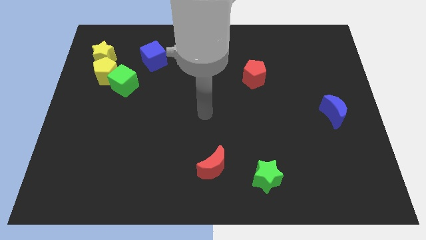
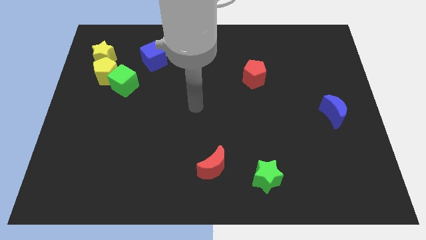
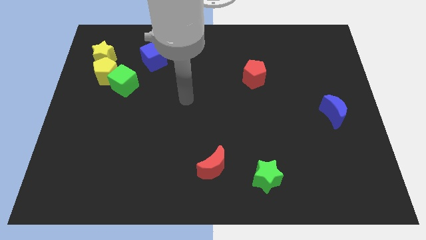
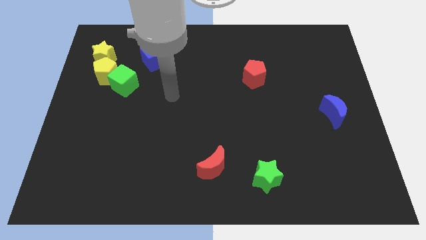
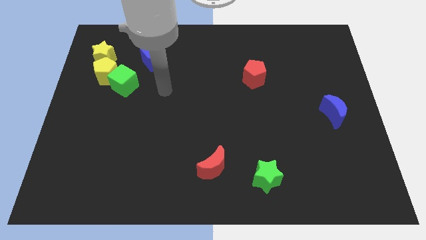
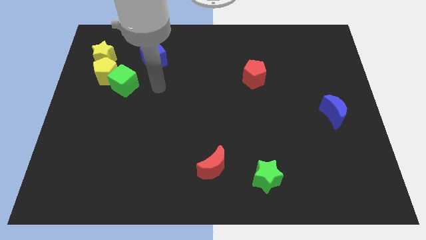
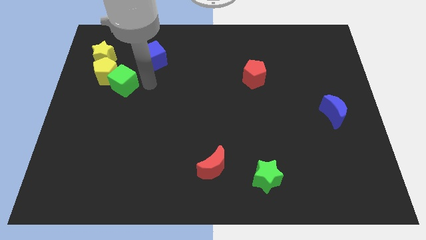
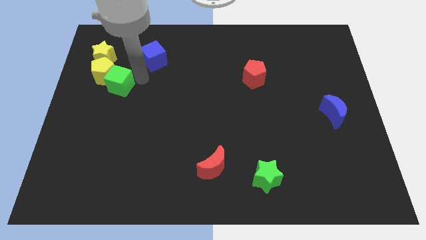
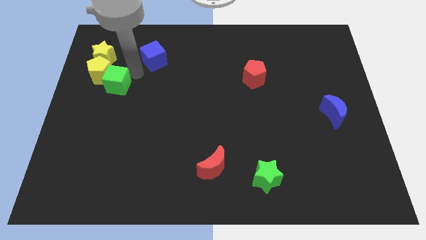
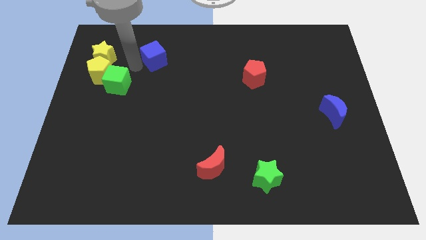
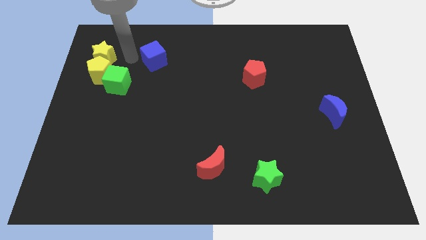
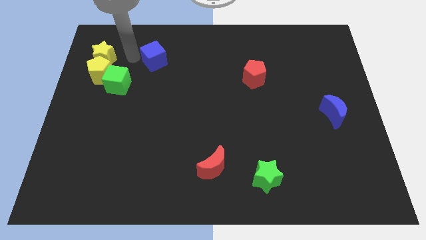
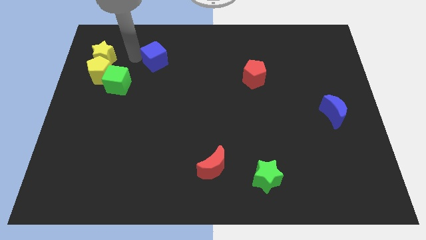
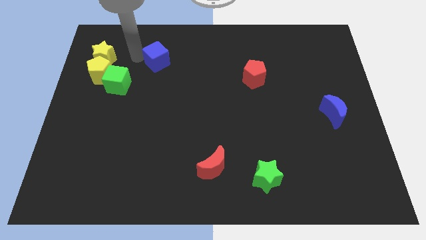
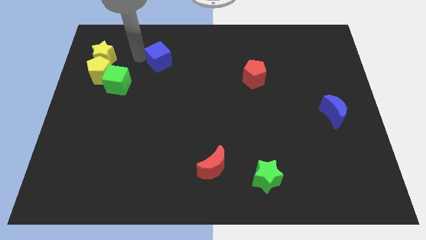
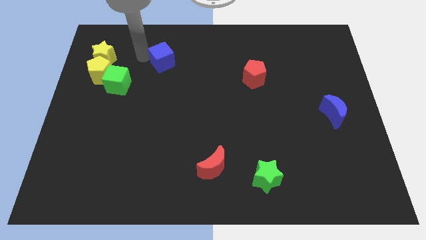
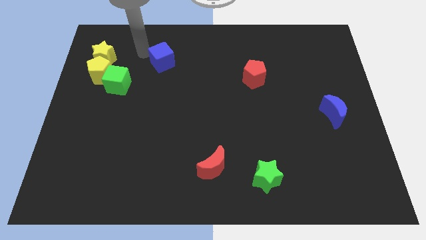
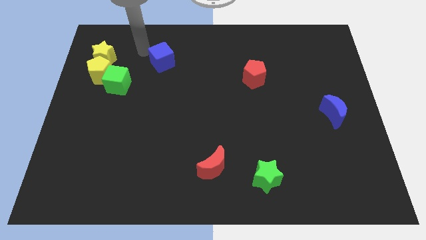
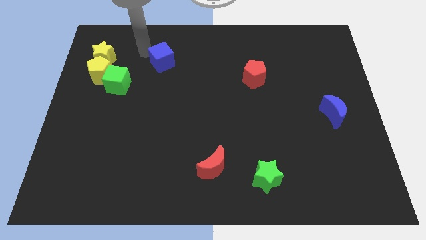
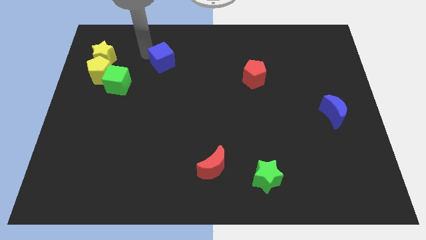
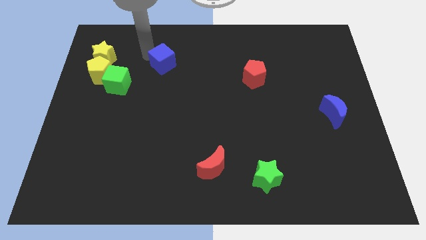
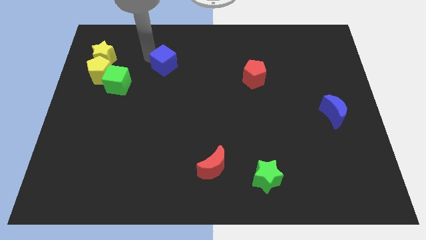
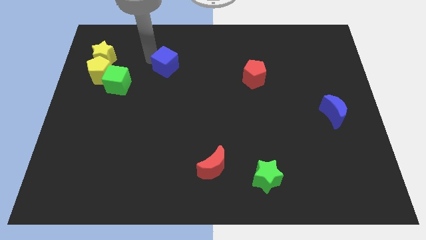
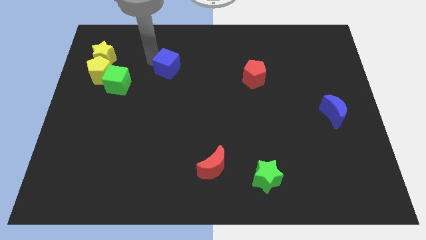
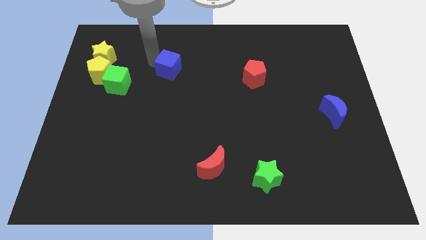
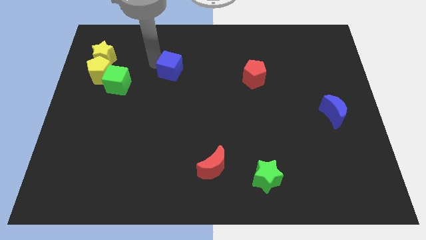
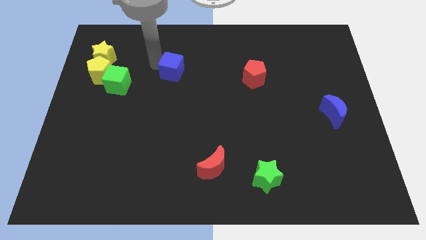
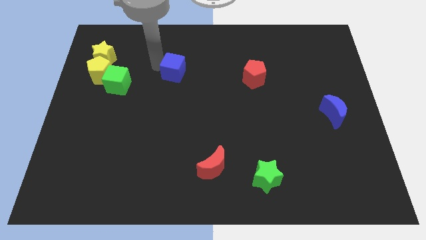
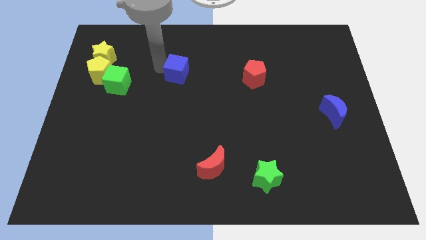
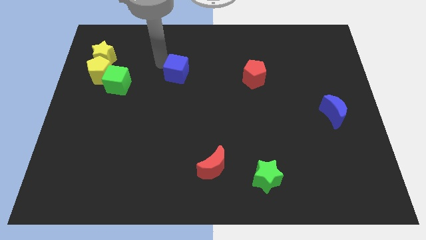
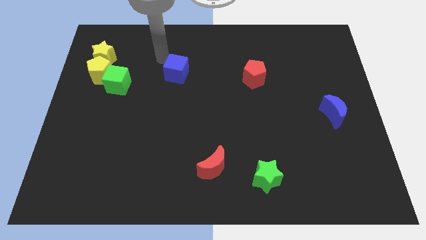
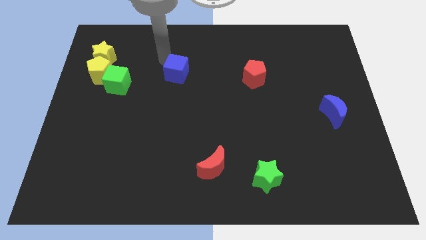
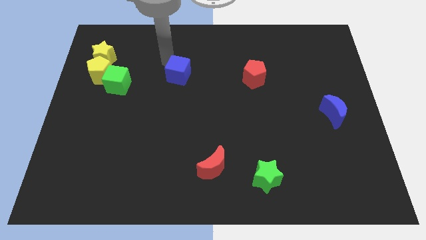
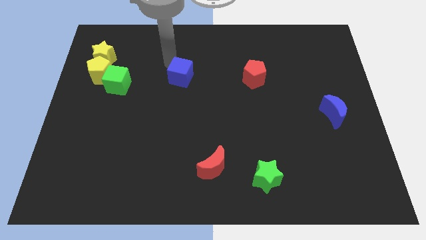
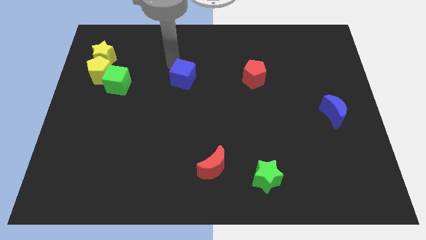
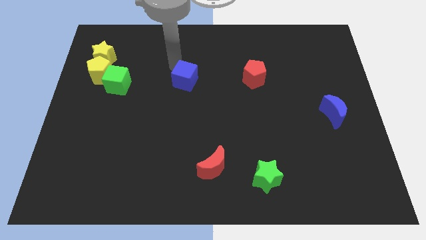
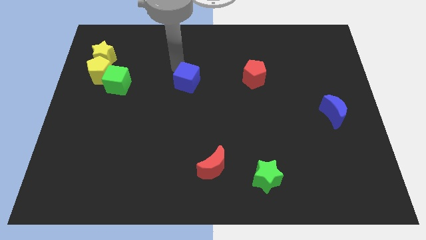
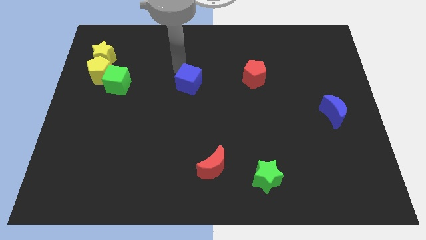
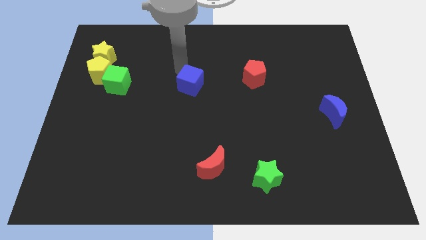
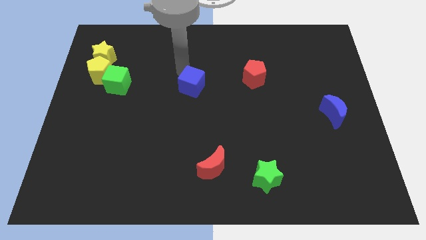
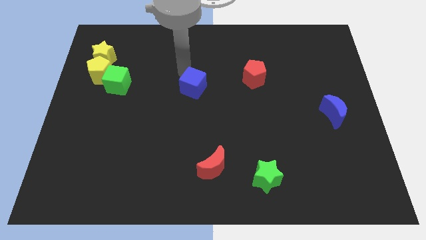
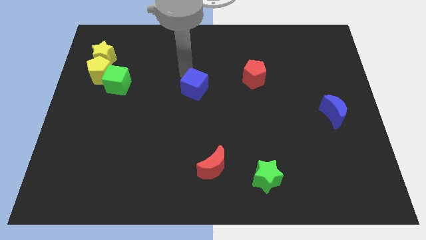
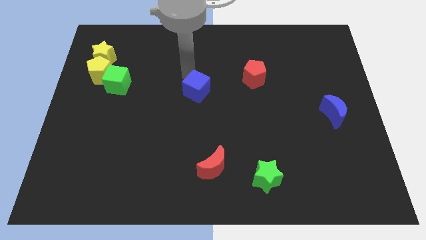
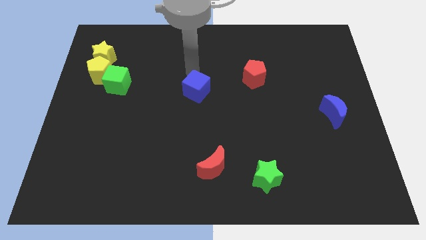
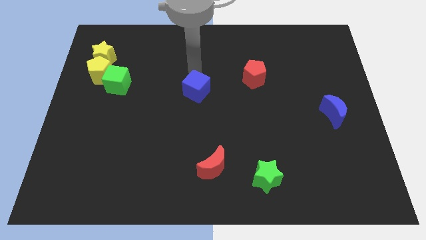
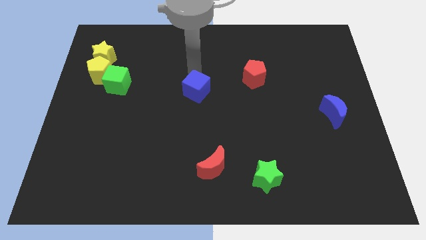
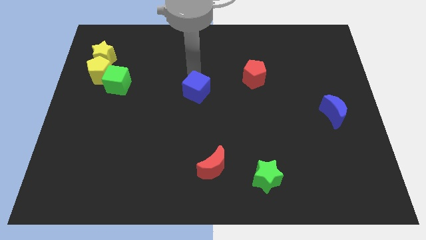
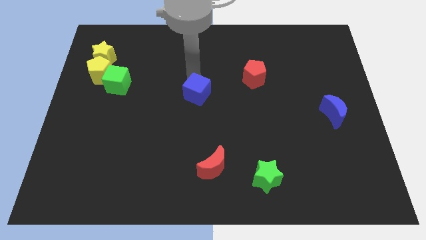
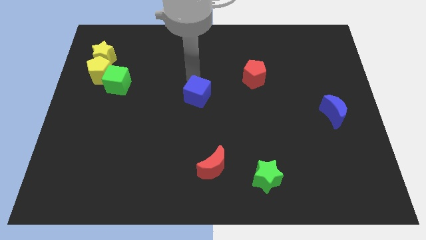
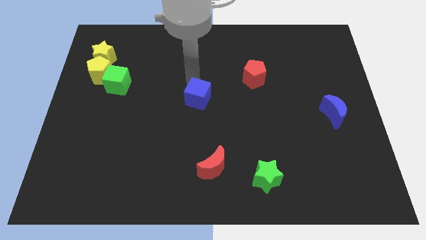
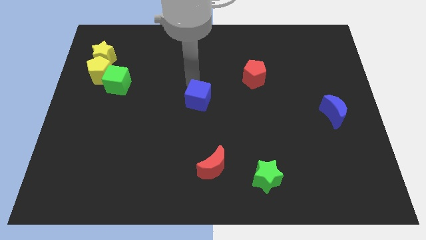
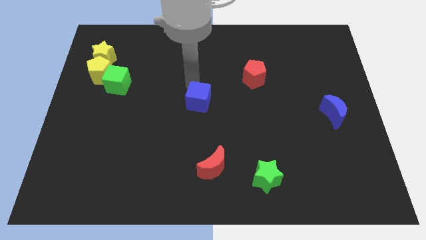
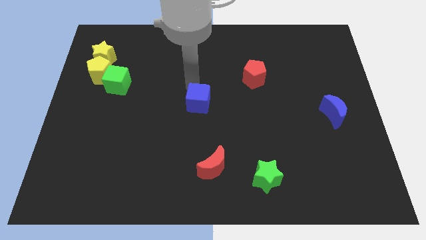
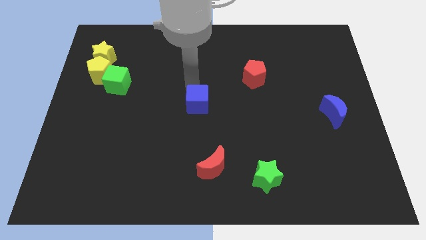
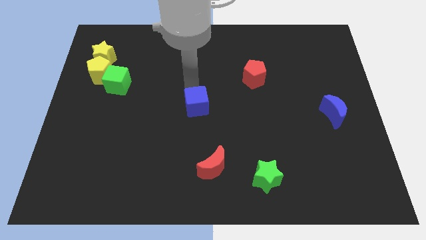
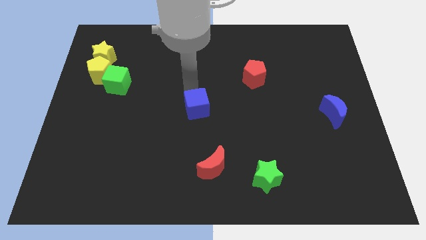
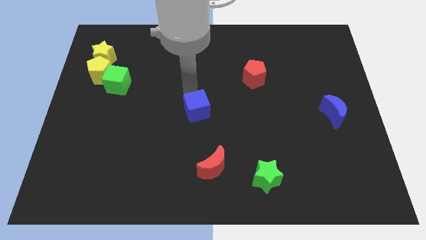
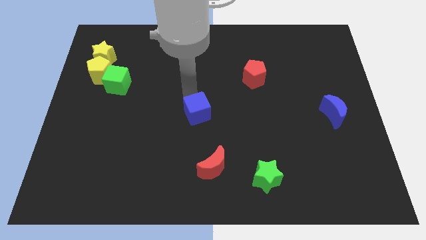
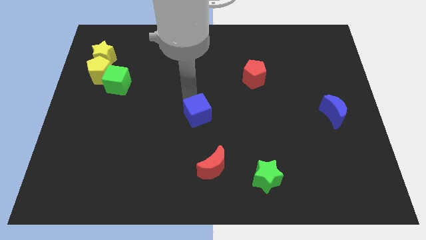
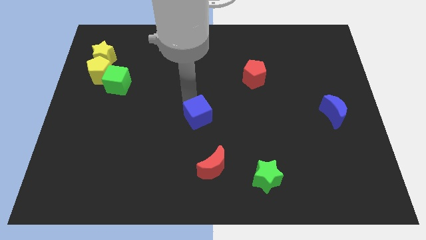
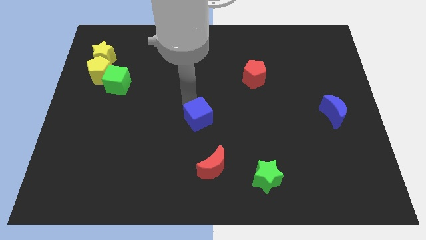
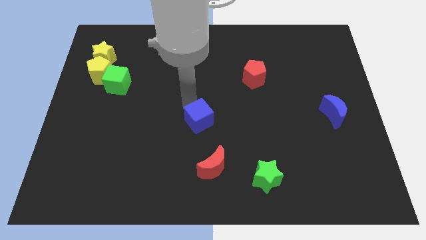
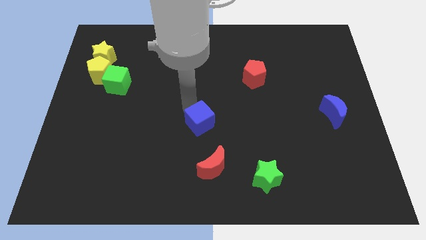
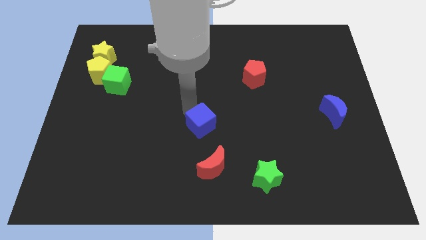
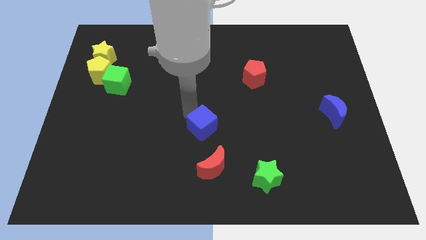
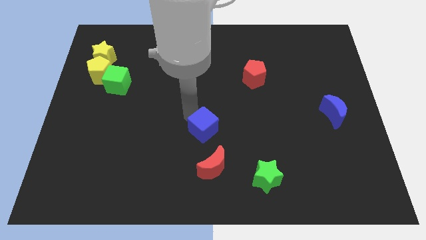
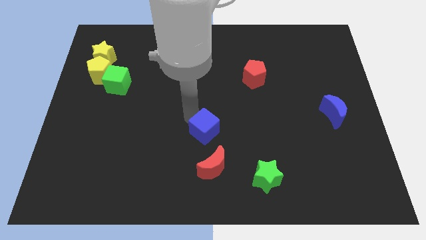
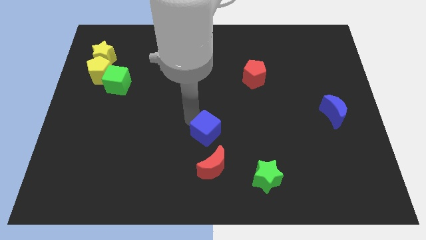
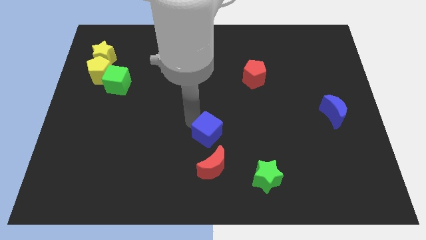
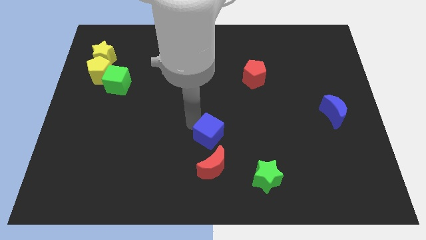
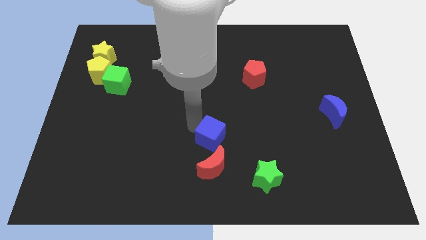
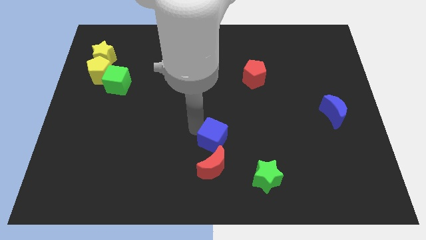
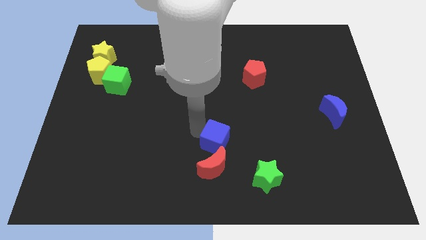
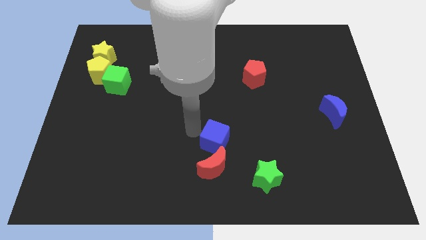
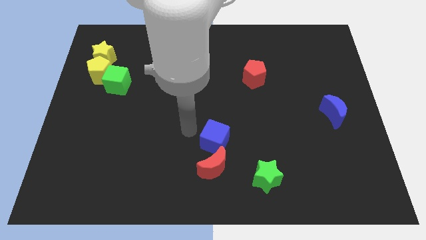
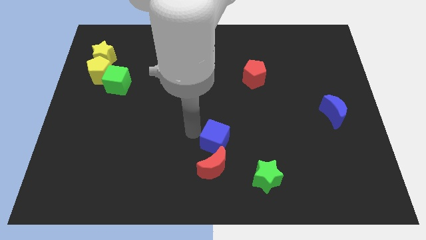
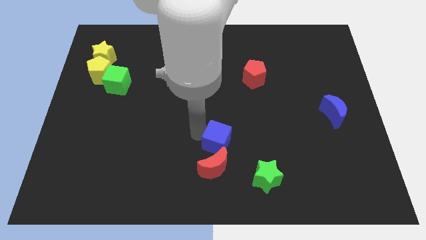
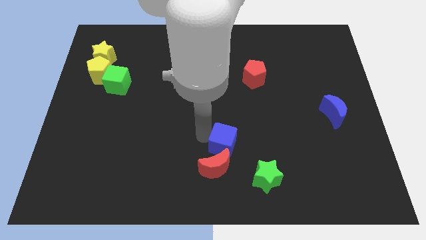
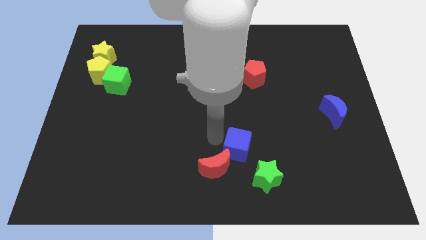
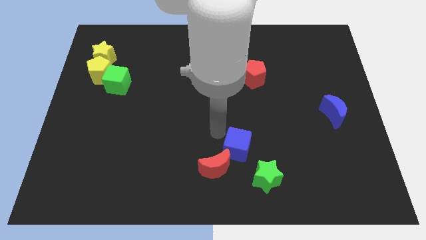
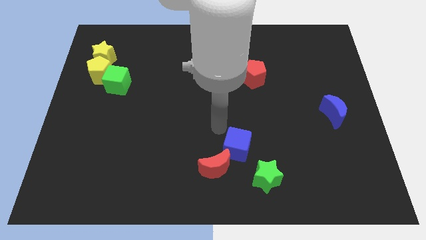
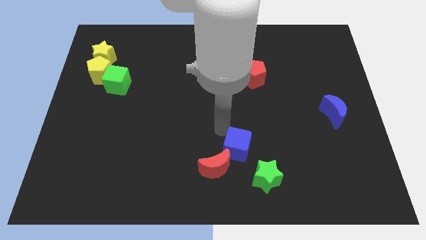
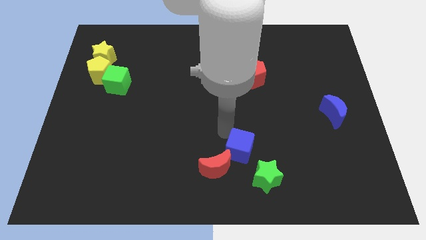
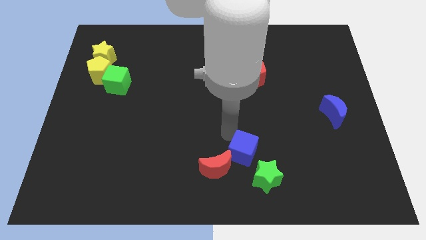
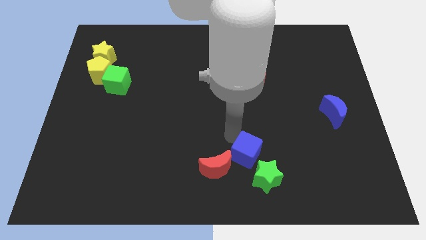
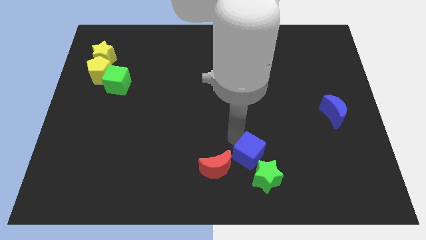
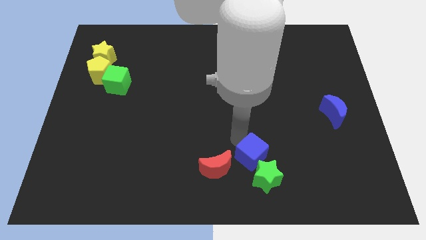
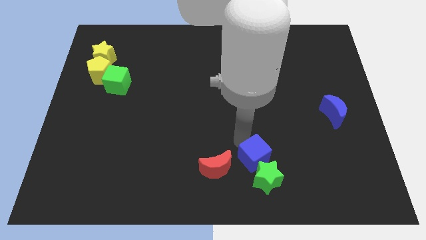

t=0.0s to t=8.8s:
put the blue cube towards the green star
